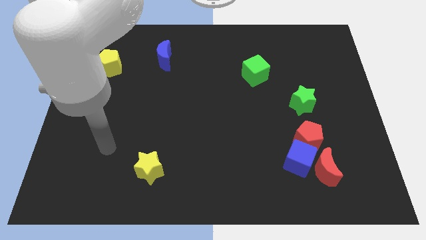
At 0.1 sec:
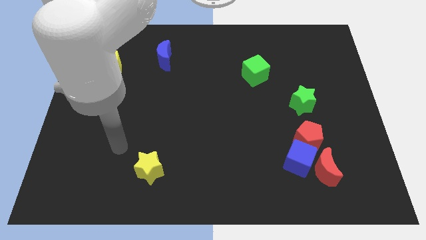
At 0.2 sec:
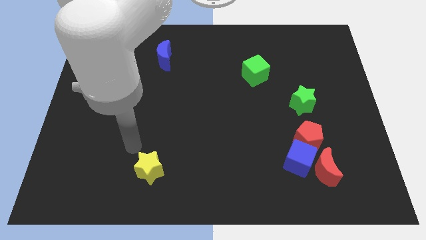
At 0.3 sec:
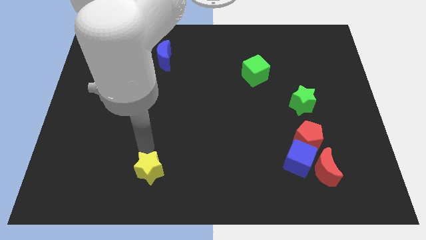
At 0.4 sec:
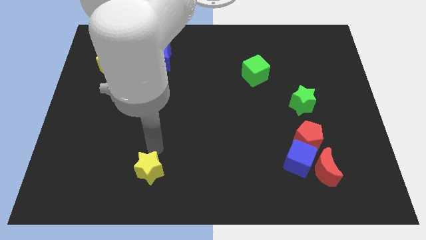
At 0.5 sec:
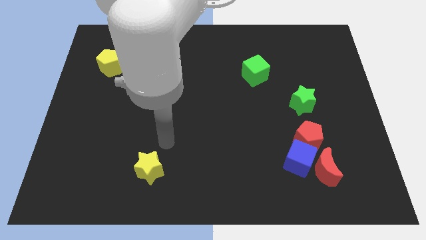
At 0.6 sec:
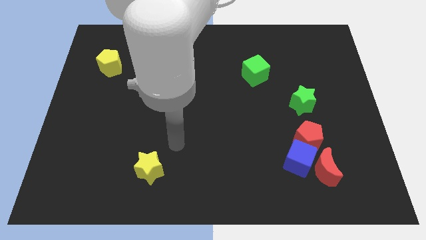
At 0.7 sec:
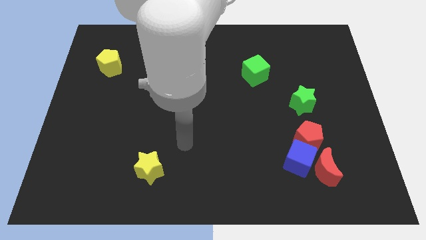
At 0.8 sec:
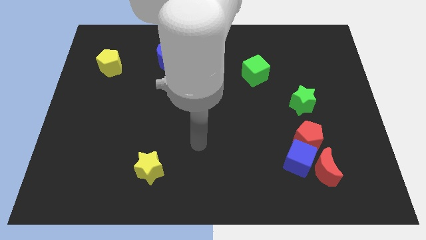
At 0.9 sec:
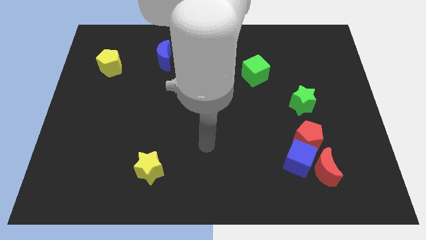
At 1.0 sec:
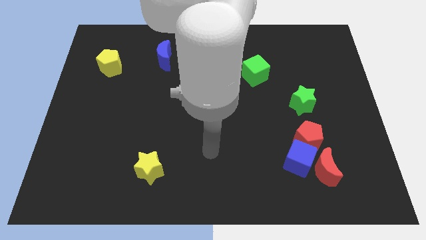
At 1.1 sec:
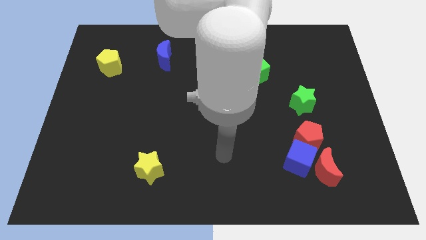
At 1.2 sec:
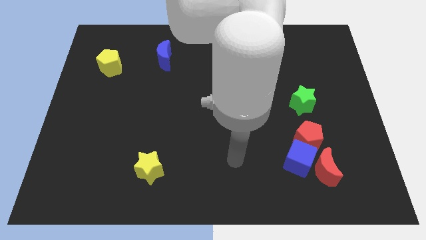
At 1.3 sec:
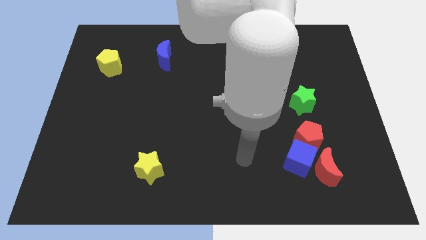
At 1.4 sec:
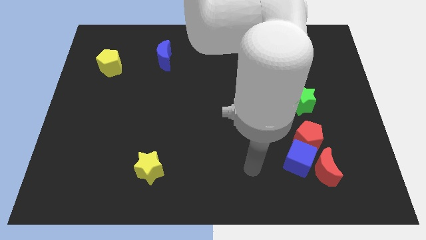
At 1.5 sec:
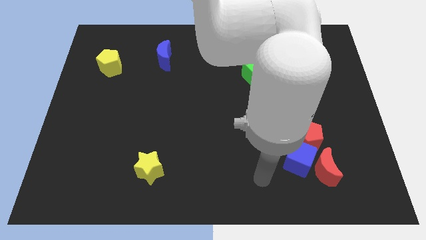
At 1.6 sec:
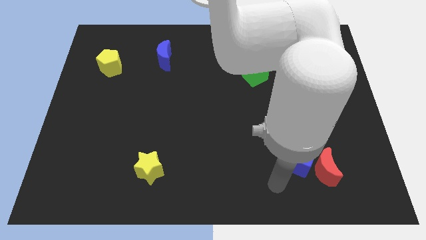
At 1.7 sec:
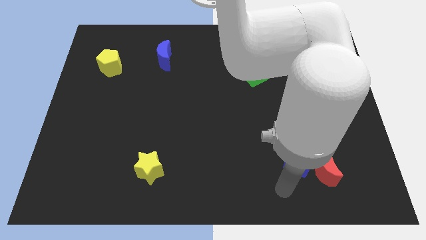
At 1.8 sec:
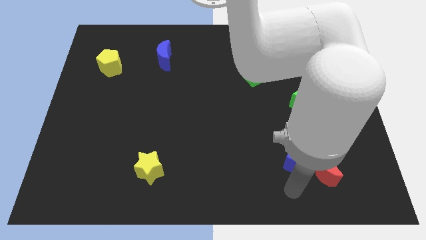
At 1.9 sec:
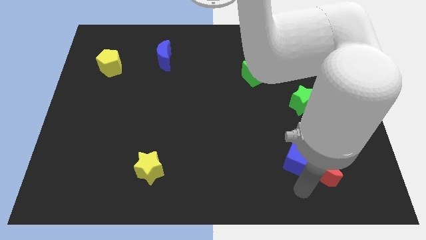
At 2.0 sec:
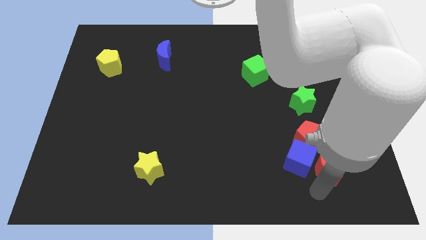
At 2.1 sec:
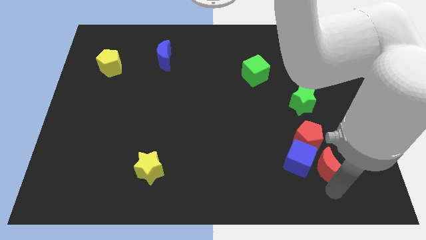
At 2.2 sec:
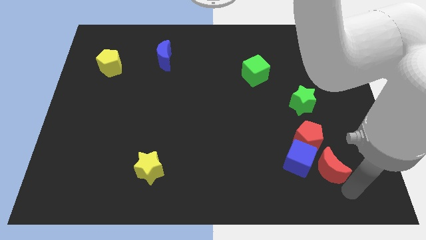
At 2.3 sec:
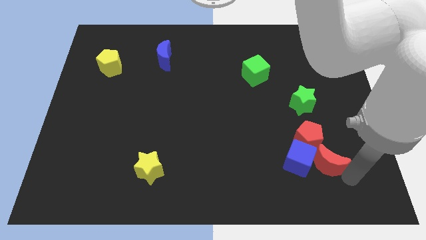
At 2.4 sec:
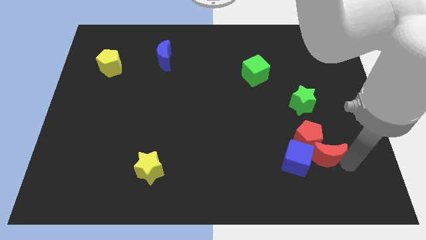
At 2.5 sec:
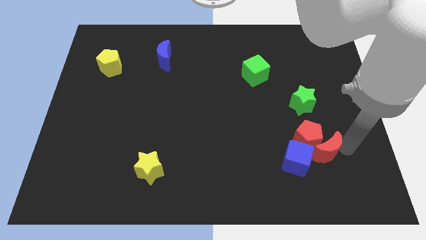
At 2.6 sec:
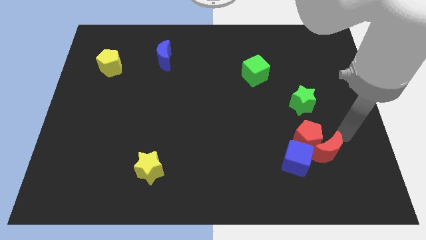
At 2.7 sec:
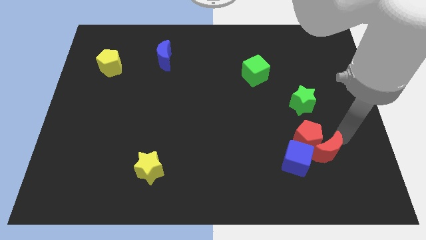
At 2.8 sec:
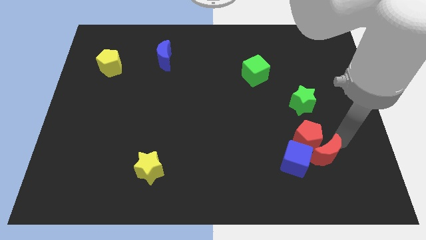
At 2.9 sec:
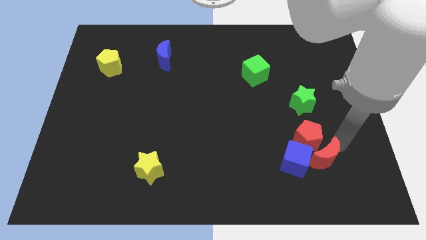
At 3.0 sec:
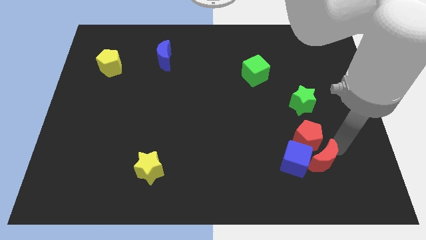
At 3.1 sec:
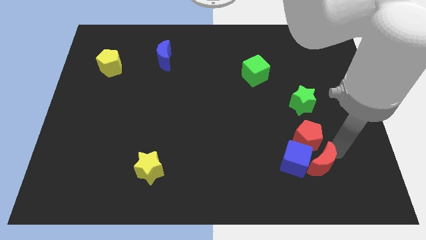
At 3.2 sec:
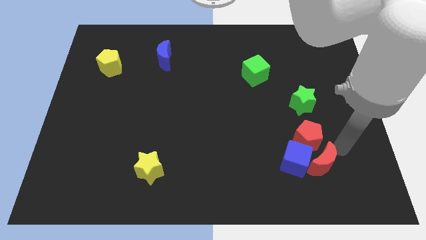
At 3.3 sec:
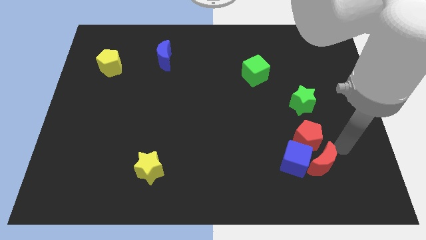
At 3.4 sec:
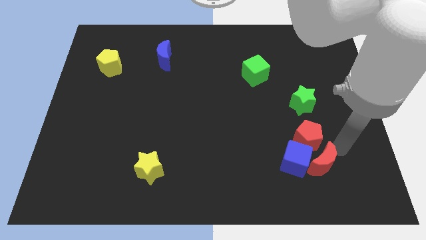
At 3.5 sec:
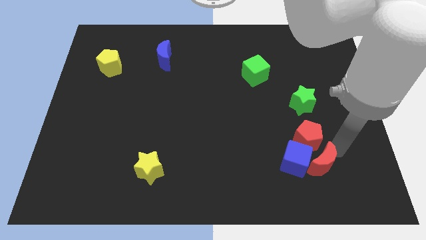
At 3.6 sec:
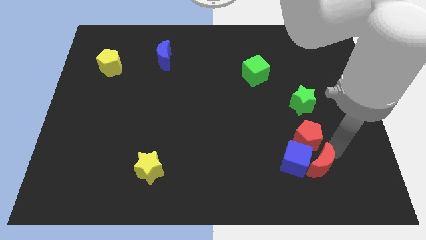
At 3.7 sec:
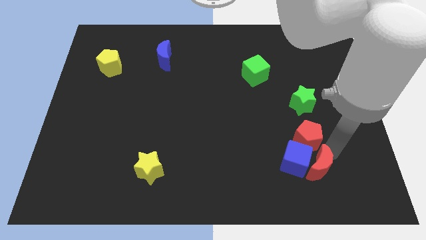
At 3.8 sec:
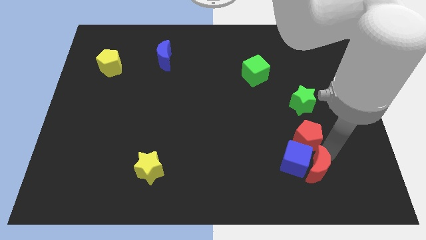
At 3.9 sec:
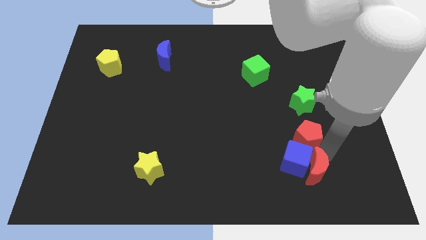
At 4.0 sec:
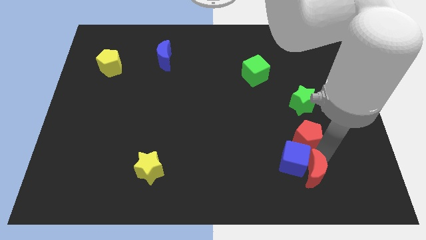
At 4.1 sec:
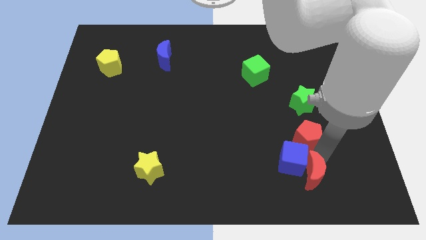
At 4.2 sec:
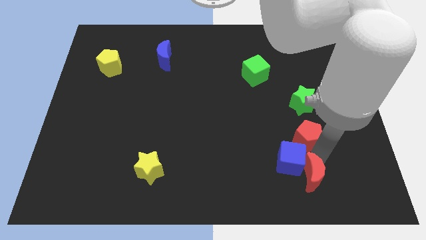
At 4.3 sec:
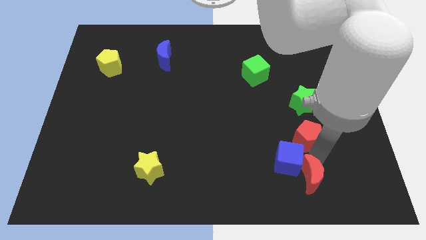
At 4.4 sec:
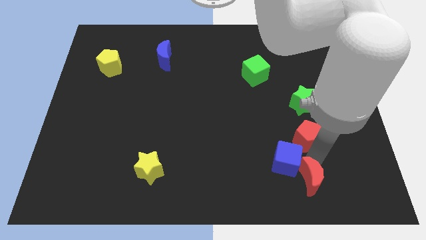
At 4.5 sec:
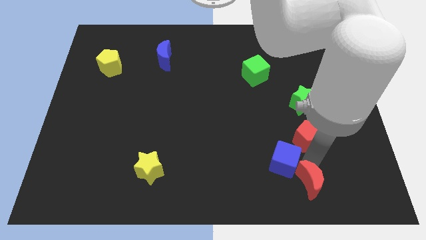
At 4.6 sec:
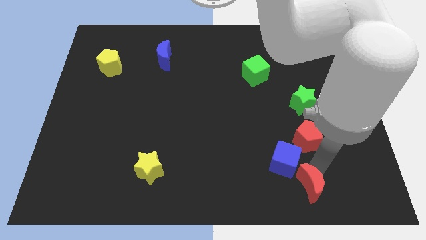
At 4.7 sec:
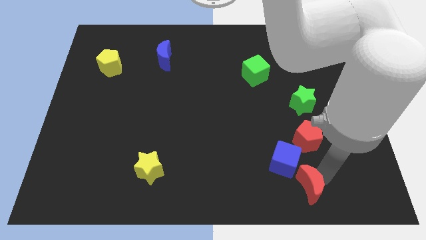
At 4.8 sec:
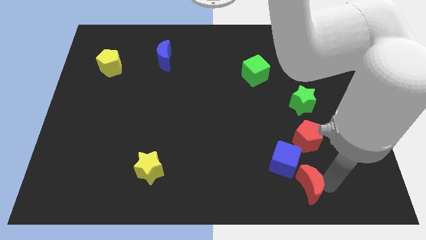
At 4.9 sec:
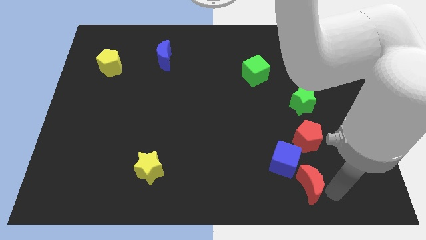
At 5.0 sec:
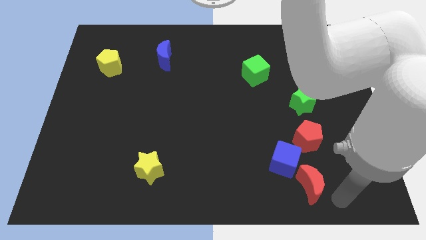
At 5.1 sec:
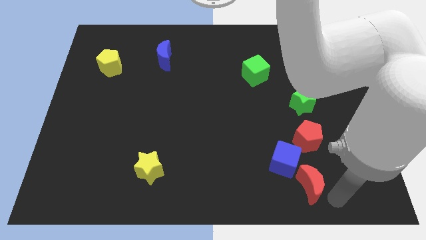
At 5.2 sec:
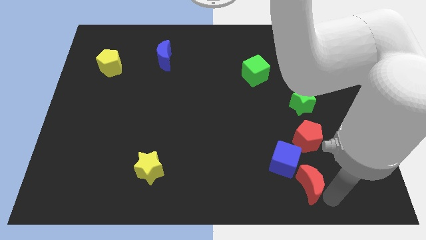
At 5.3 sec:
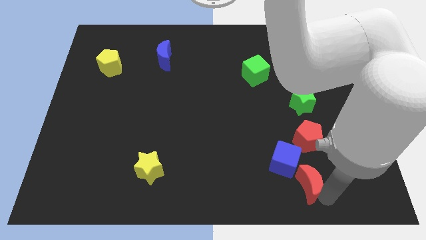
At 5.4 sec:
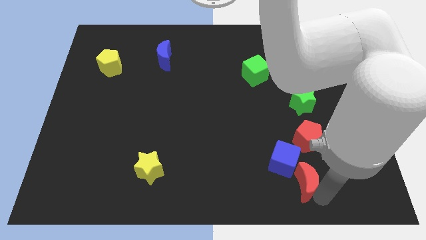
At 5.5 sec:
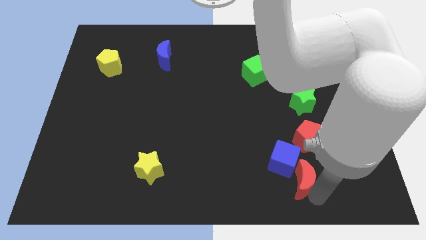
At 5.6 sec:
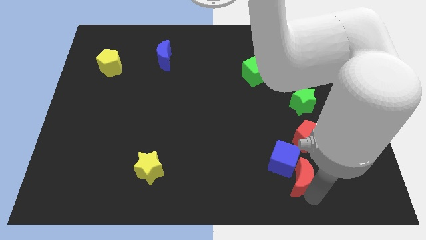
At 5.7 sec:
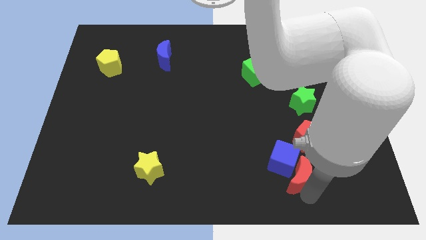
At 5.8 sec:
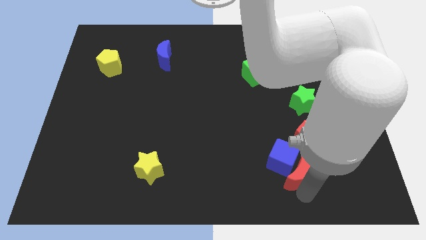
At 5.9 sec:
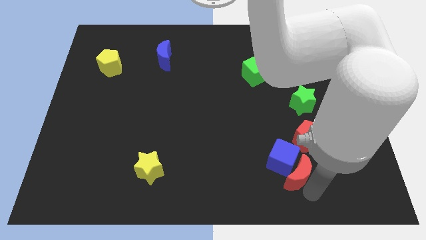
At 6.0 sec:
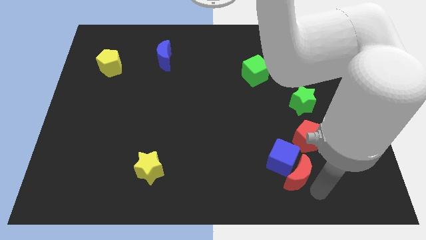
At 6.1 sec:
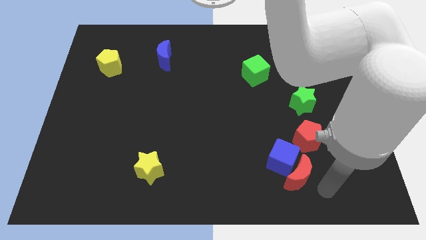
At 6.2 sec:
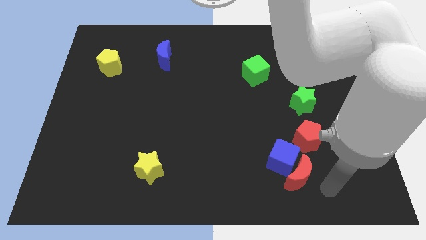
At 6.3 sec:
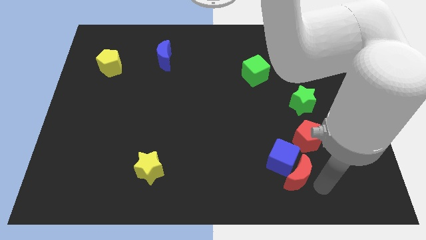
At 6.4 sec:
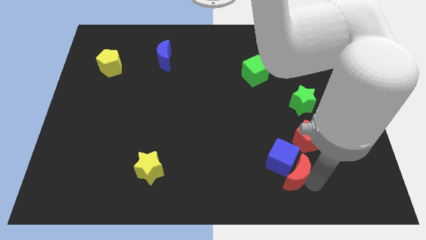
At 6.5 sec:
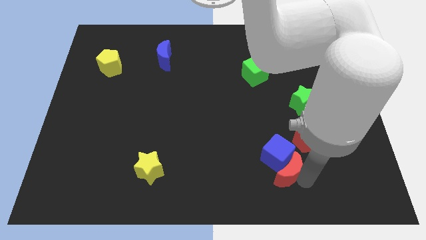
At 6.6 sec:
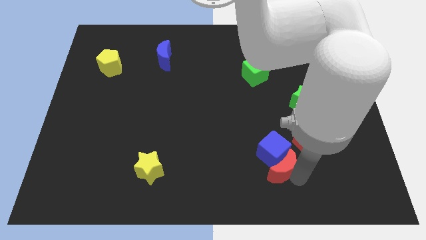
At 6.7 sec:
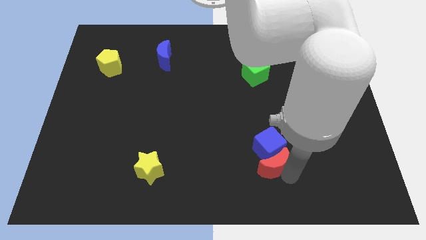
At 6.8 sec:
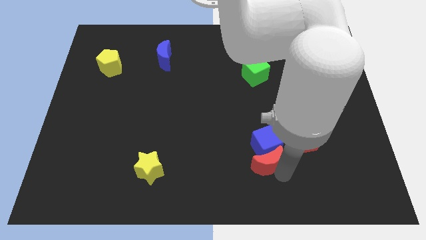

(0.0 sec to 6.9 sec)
slide the red moon slightly up and to the left diagonally

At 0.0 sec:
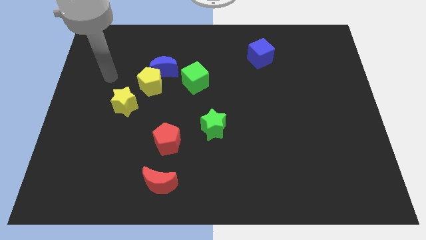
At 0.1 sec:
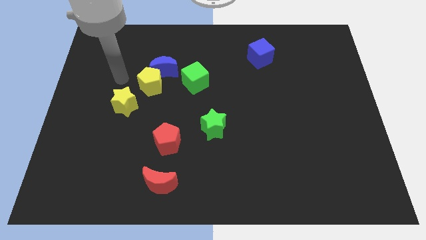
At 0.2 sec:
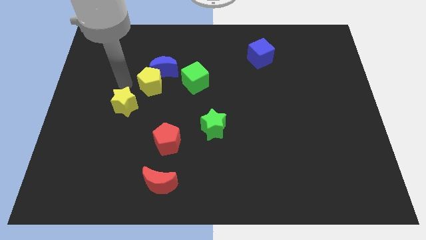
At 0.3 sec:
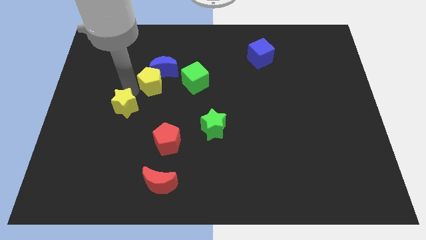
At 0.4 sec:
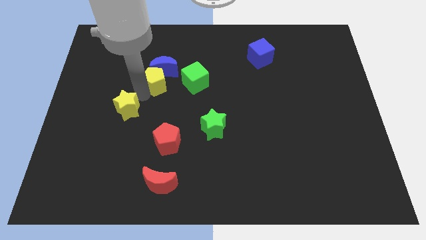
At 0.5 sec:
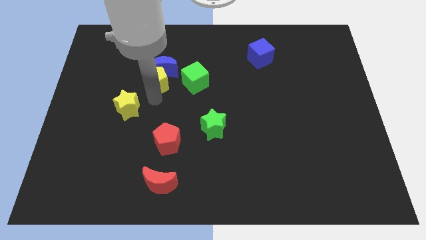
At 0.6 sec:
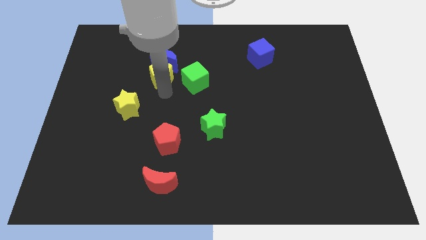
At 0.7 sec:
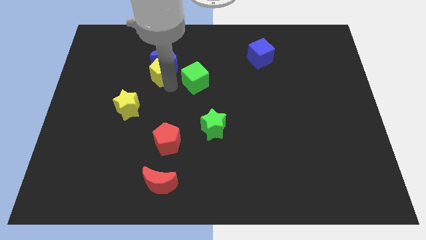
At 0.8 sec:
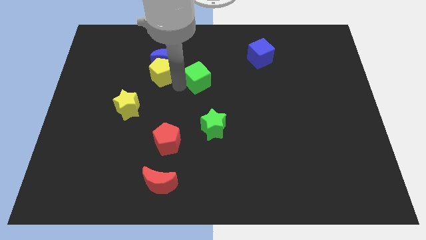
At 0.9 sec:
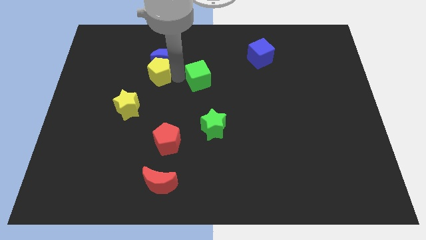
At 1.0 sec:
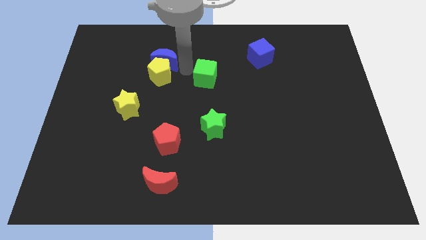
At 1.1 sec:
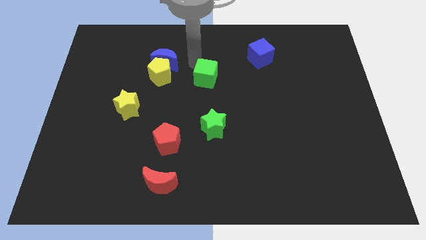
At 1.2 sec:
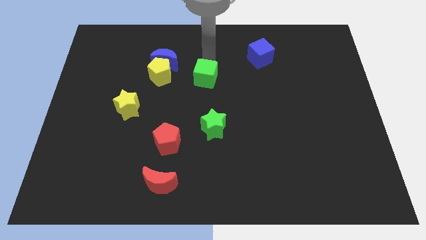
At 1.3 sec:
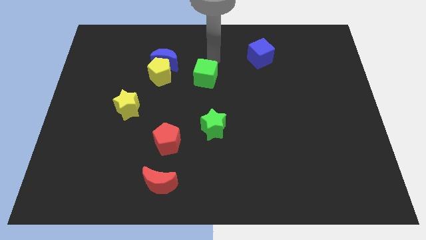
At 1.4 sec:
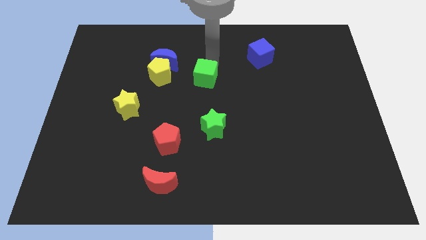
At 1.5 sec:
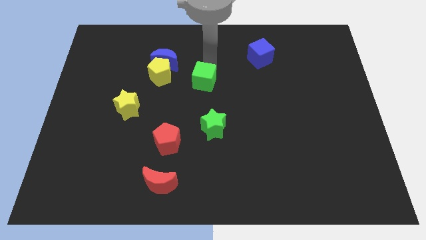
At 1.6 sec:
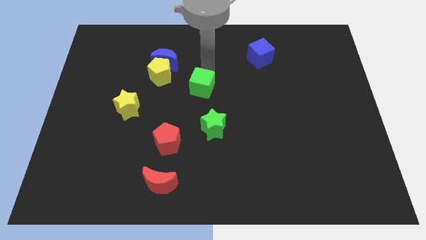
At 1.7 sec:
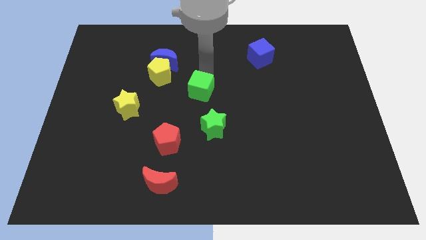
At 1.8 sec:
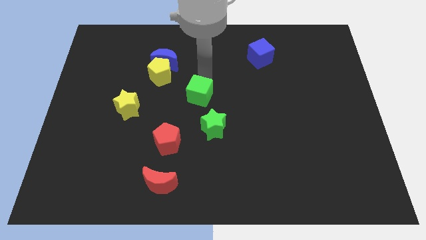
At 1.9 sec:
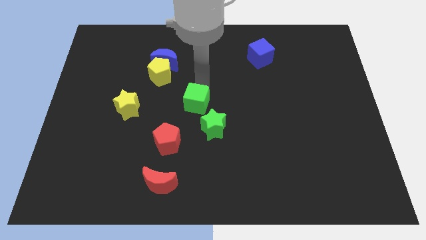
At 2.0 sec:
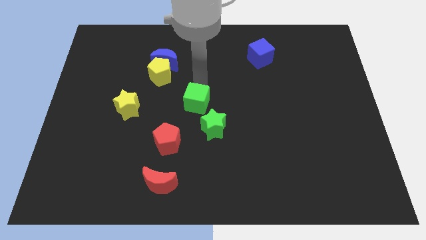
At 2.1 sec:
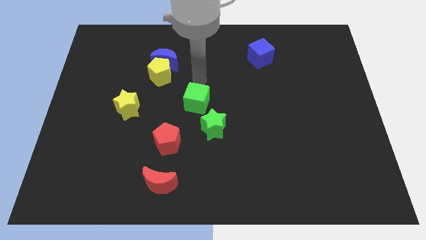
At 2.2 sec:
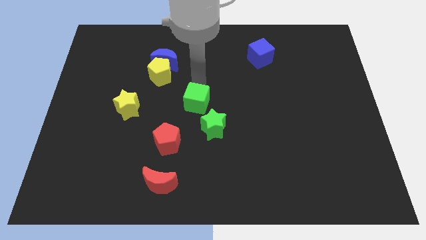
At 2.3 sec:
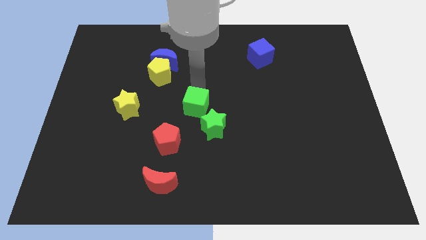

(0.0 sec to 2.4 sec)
slide the green cube a little down
